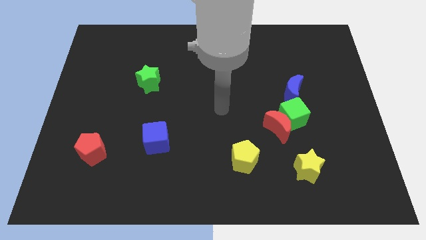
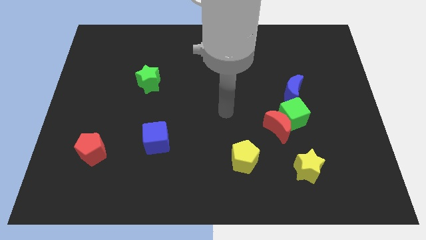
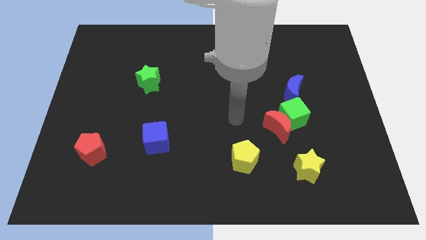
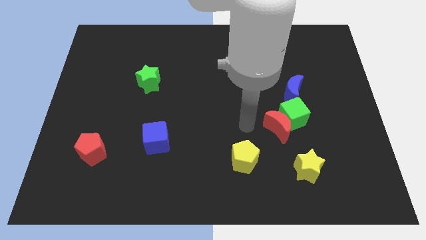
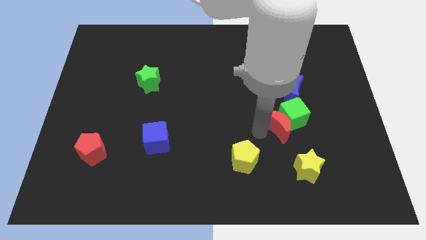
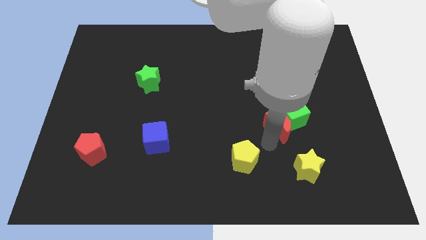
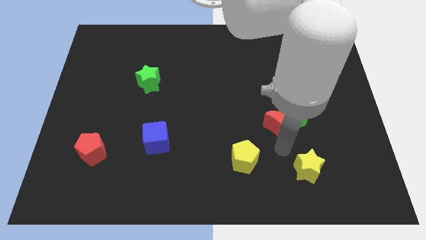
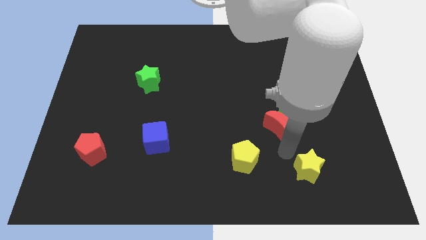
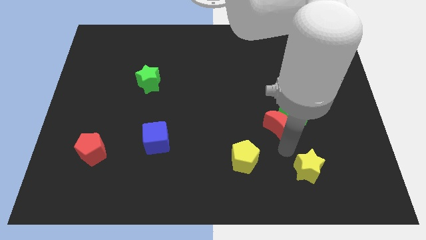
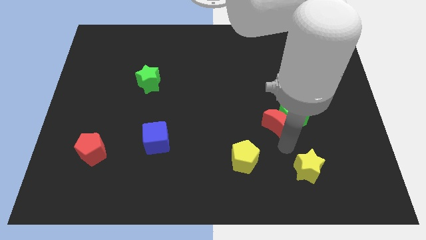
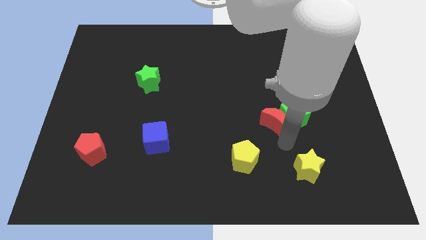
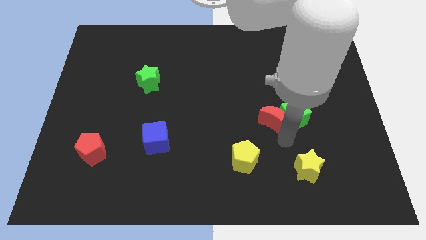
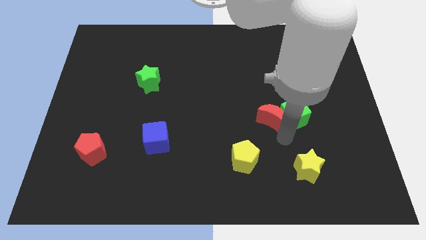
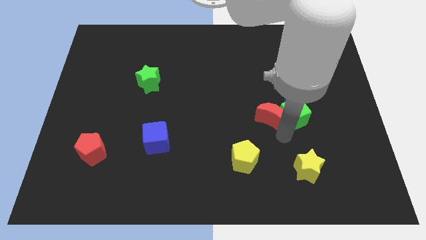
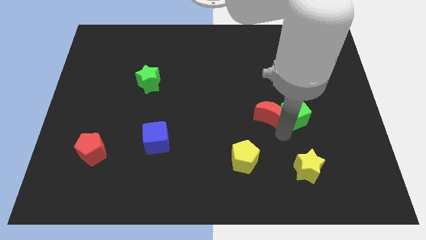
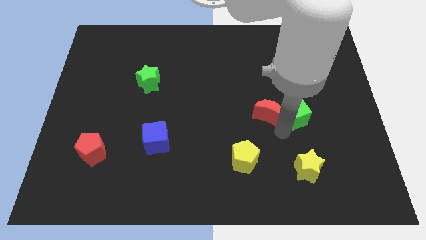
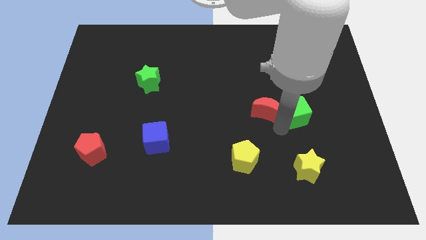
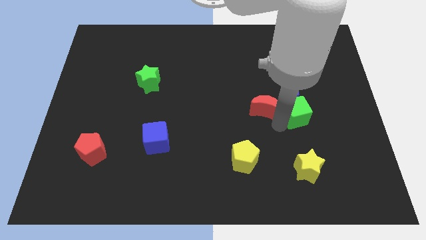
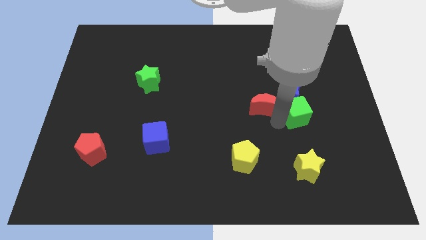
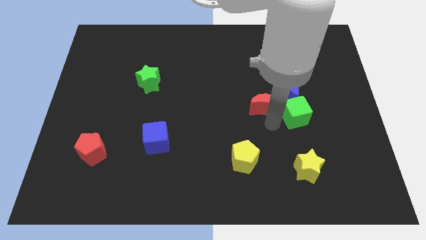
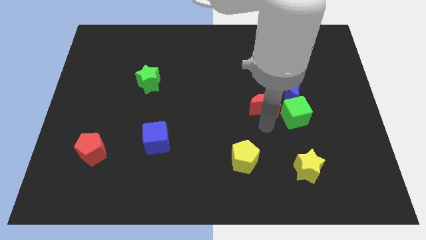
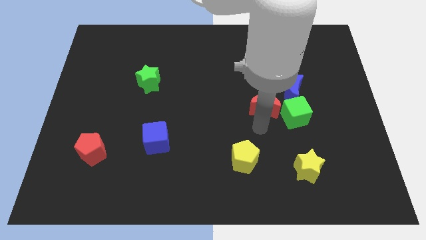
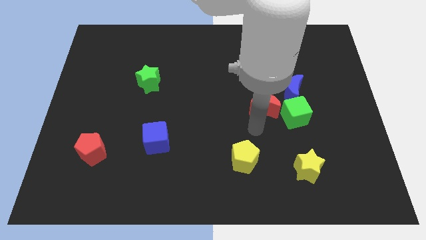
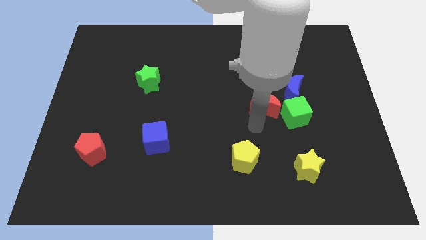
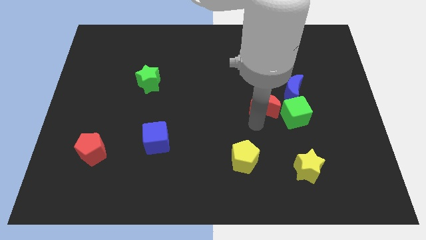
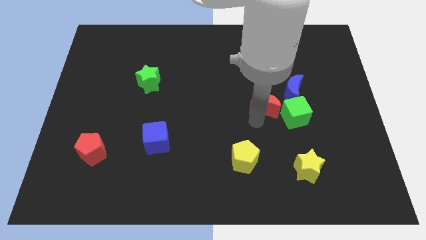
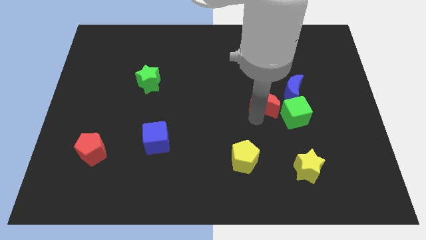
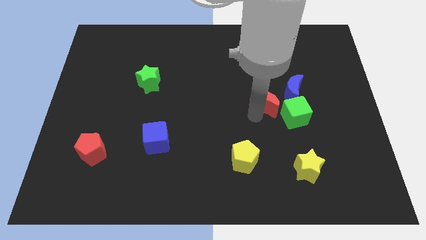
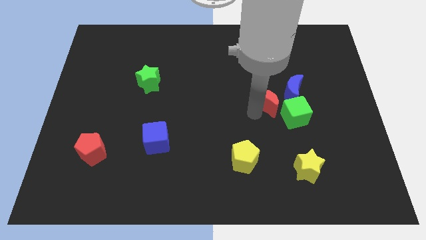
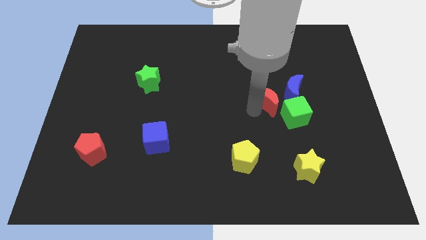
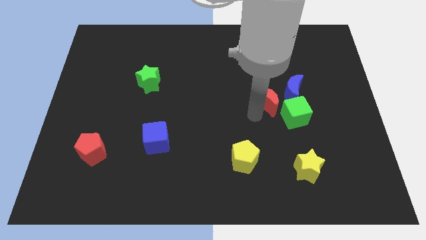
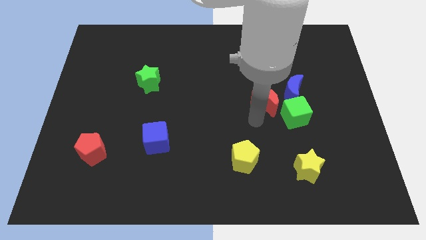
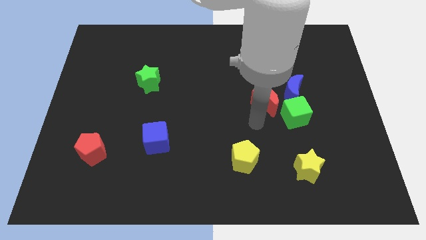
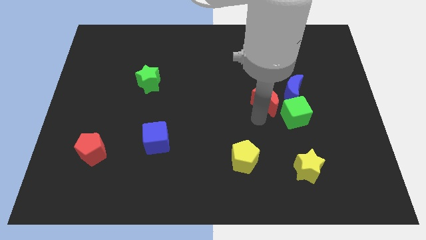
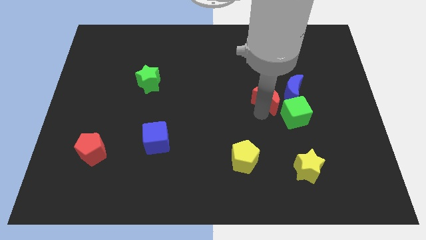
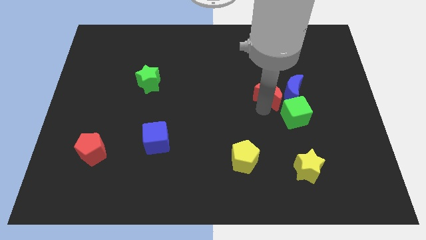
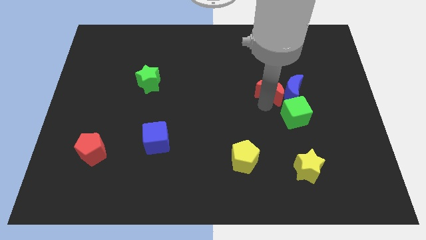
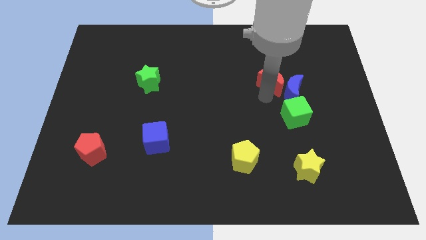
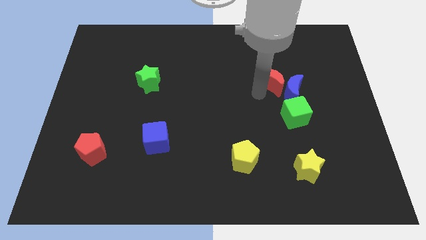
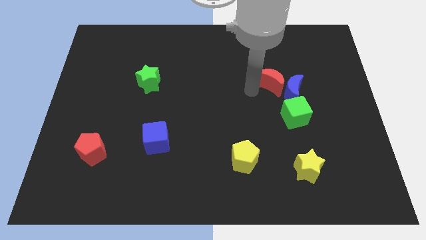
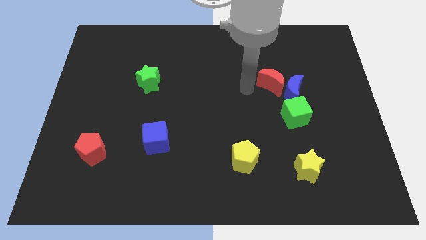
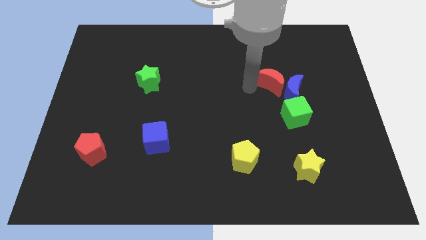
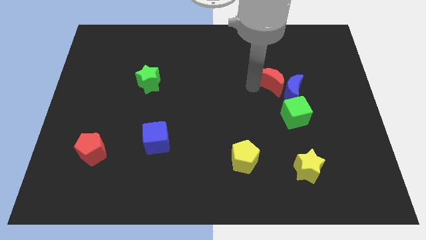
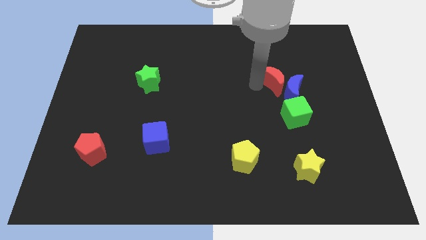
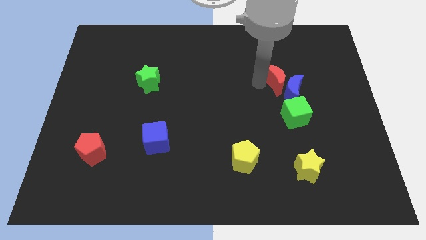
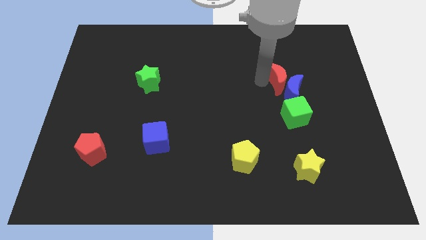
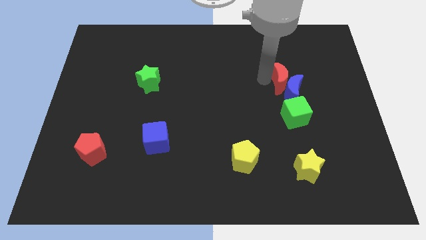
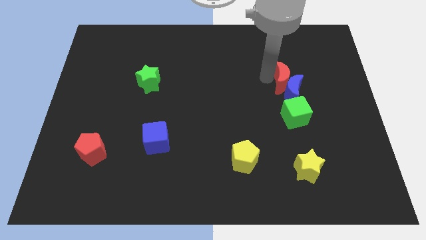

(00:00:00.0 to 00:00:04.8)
put the red moon diagonally up and to the right of the blue moon

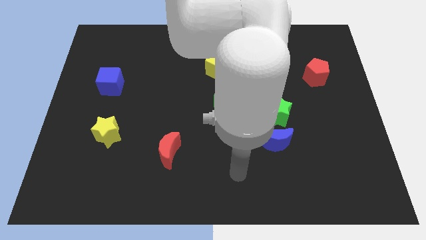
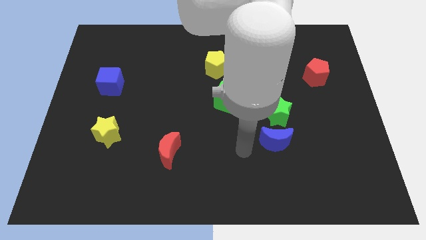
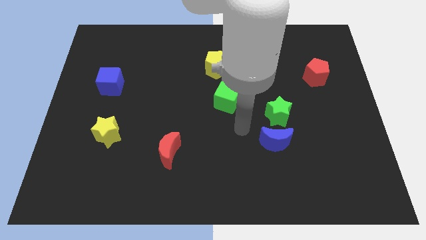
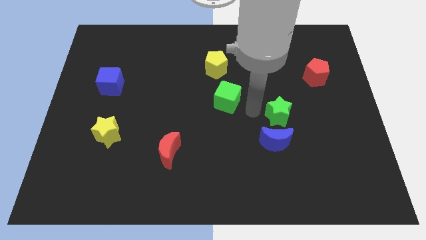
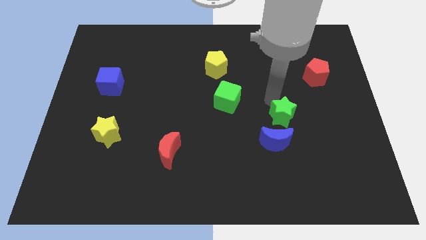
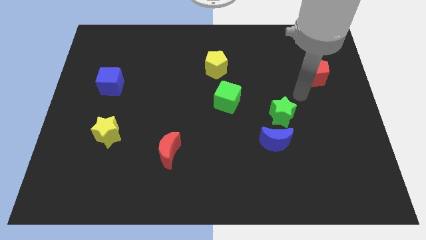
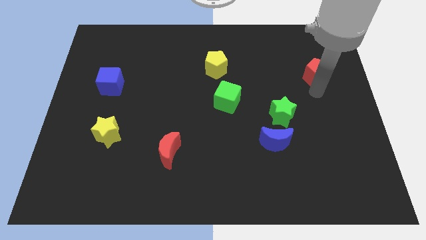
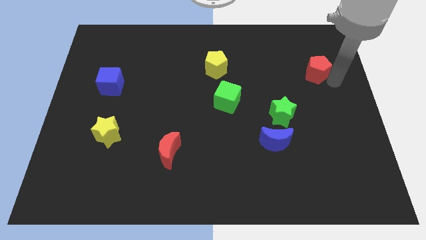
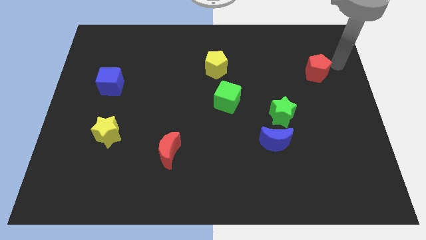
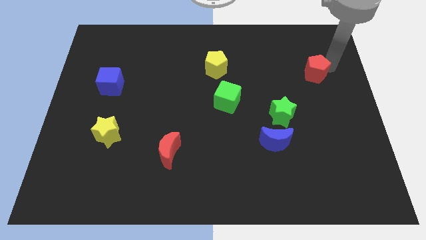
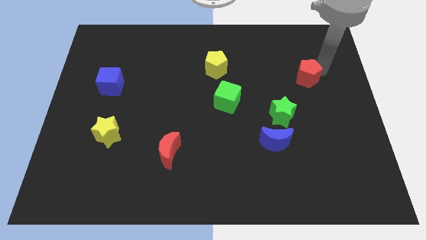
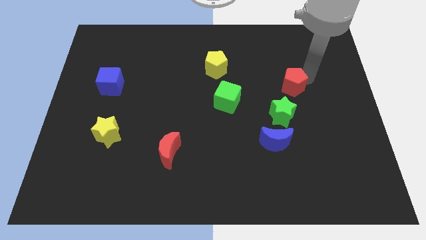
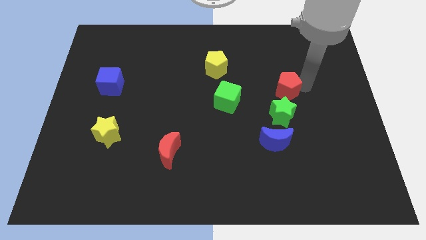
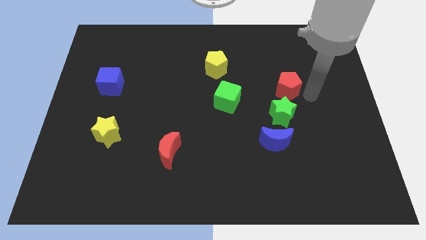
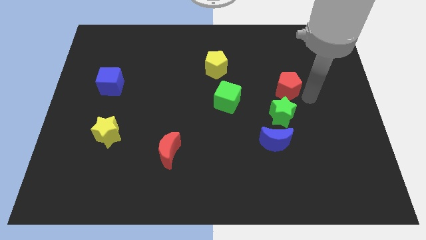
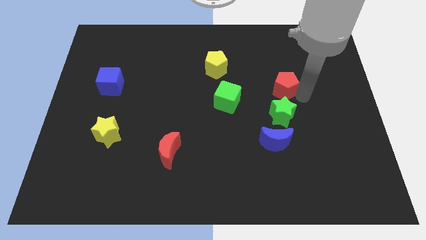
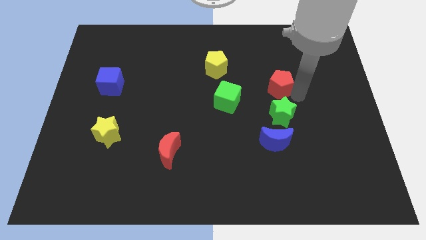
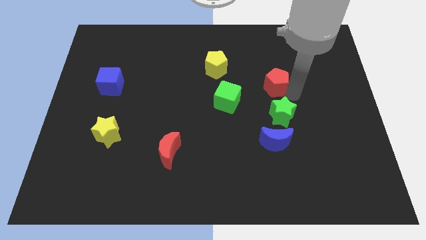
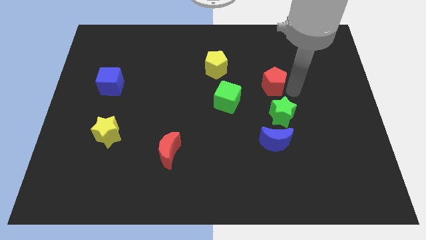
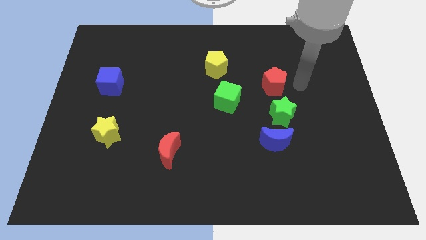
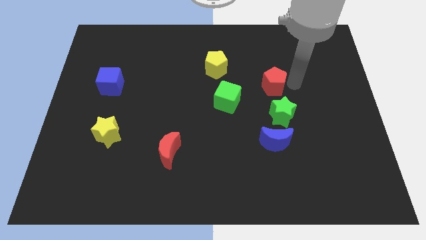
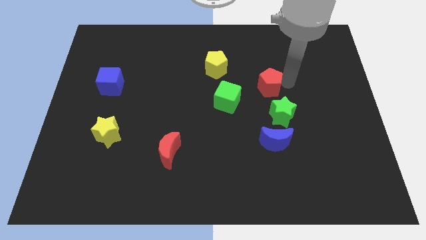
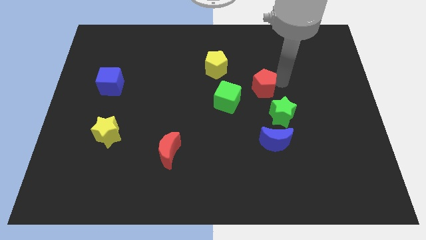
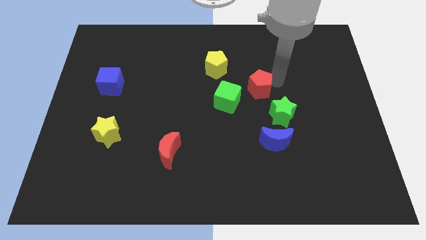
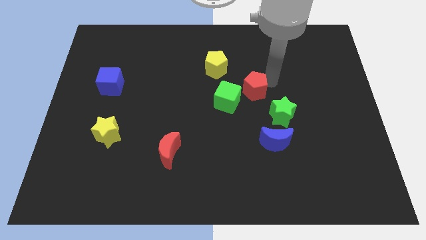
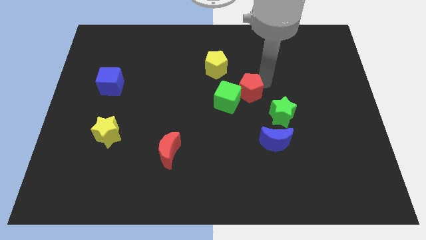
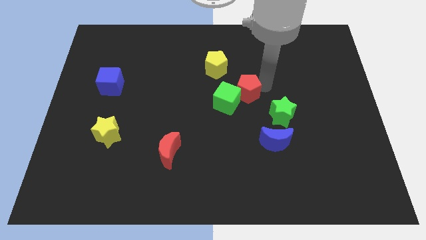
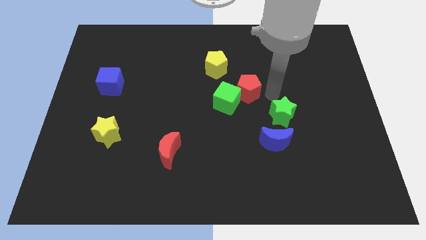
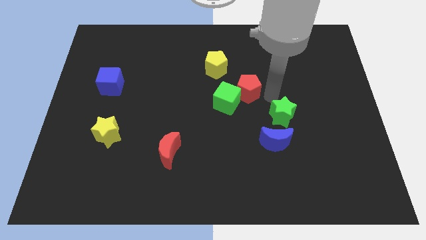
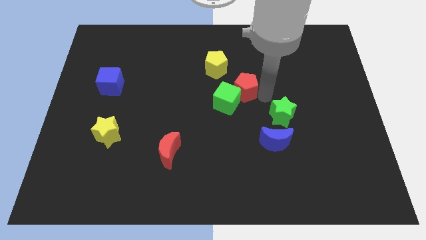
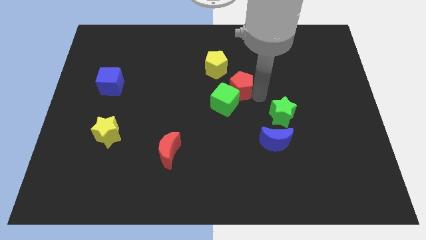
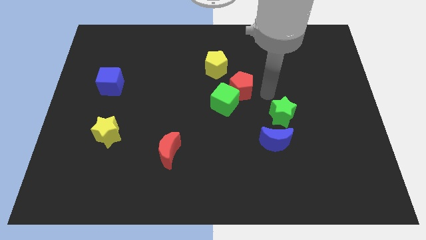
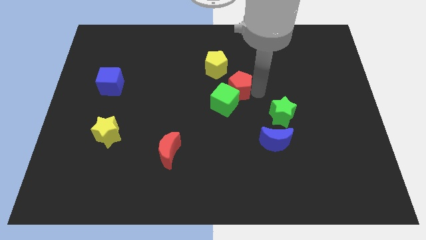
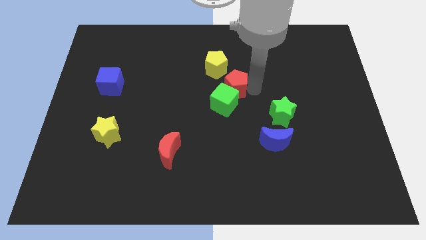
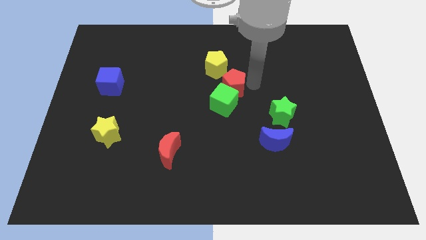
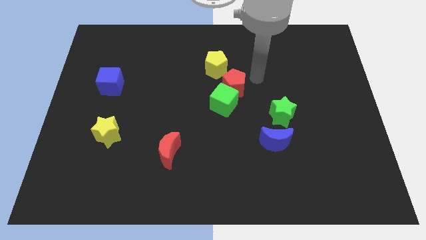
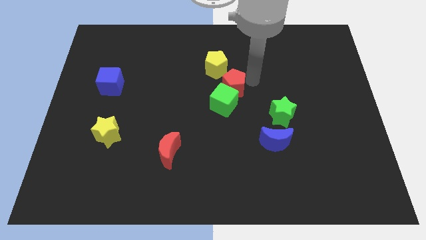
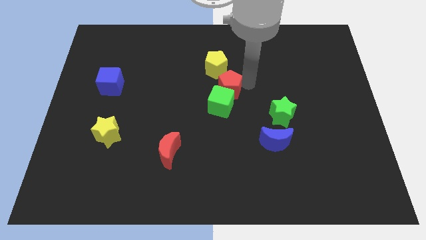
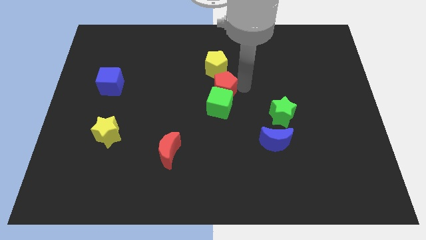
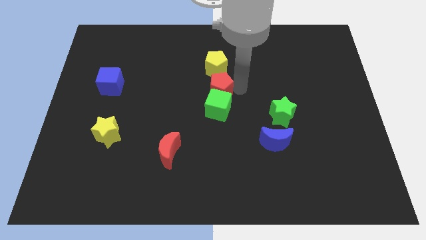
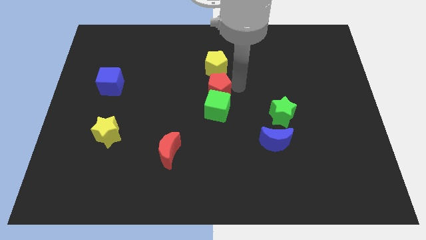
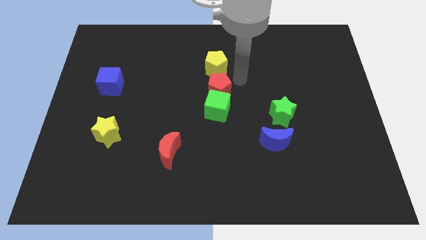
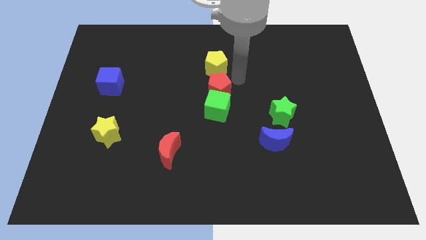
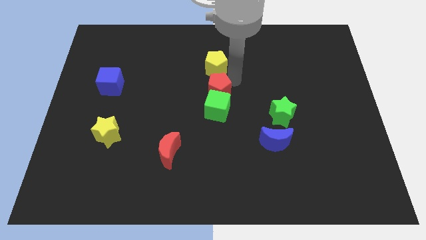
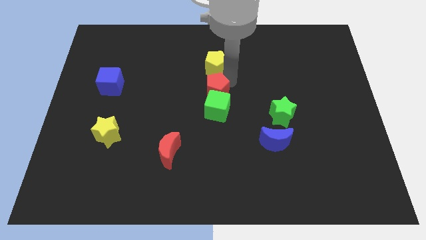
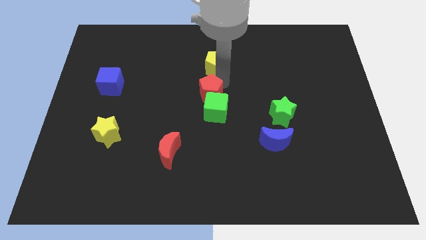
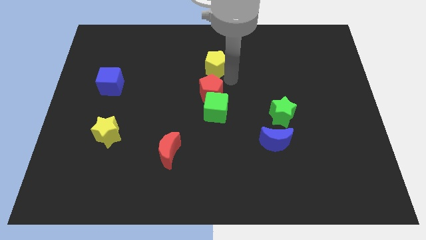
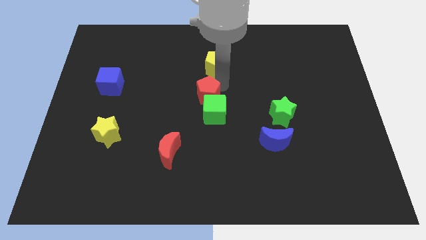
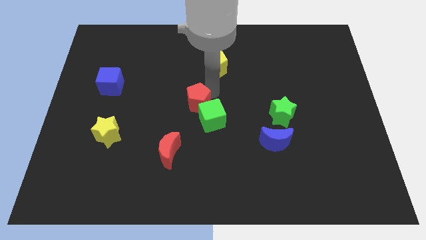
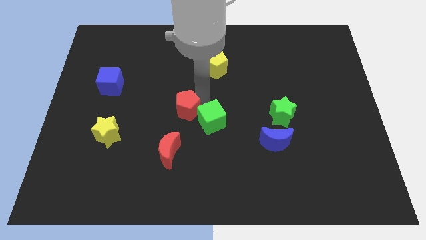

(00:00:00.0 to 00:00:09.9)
slide the red pentagon to the top side of the red moon
